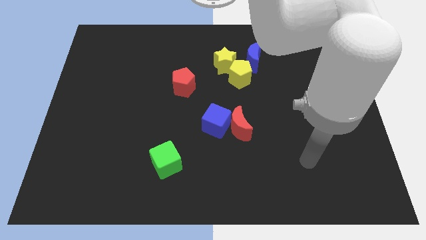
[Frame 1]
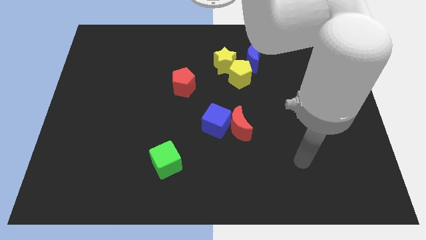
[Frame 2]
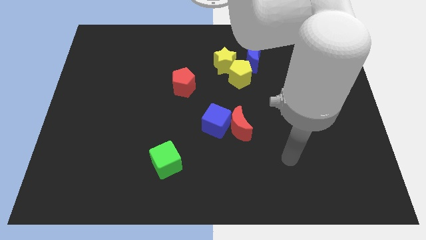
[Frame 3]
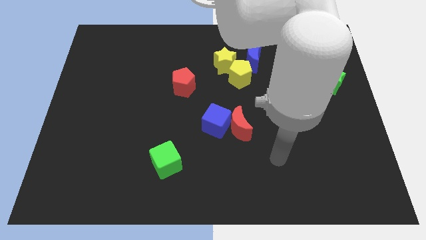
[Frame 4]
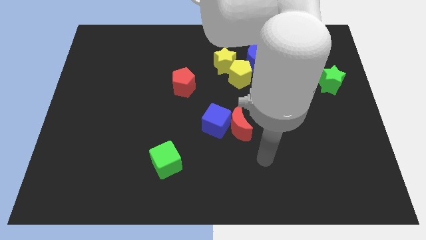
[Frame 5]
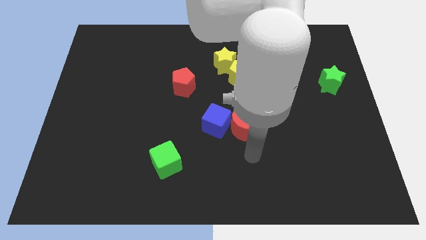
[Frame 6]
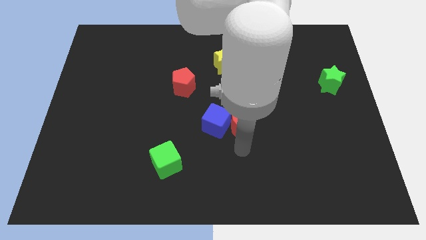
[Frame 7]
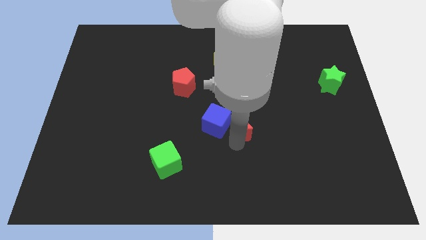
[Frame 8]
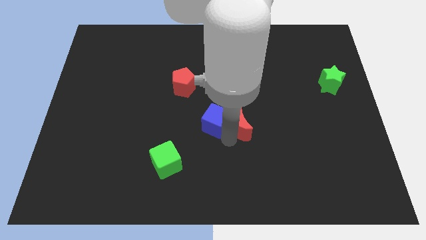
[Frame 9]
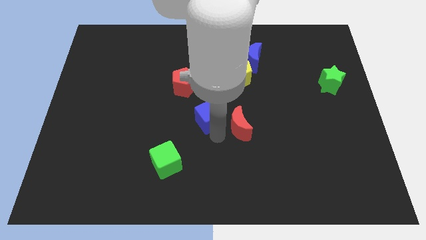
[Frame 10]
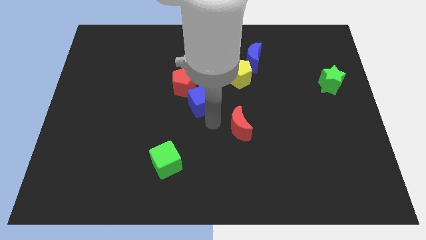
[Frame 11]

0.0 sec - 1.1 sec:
pull the red moon apart from the blue cube

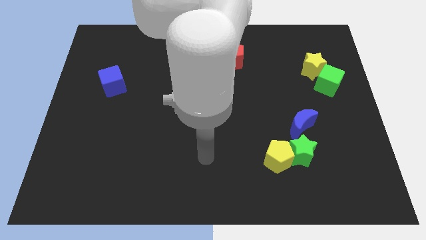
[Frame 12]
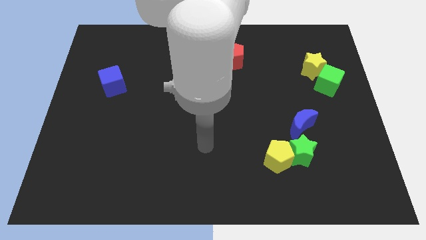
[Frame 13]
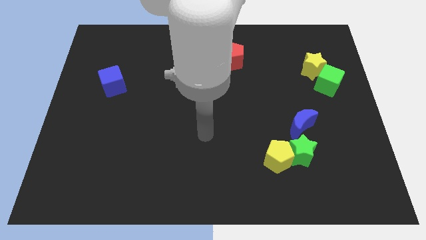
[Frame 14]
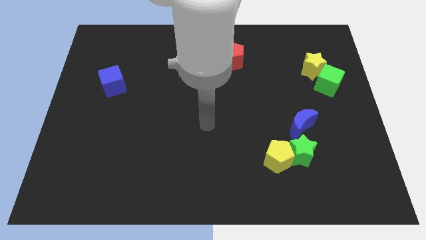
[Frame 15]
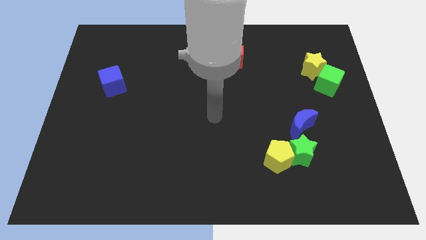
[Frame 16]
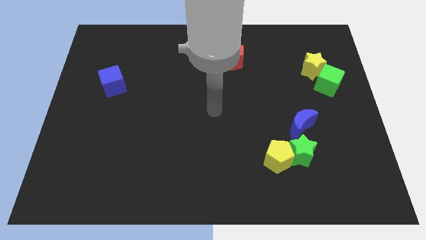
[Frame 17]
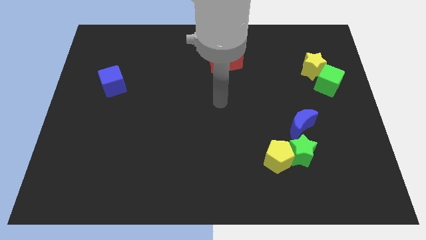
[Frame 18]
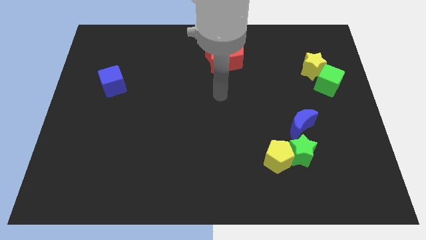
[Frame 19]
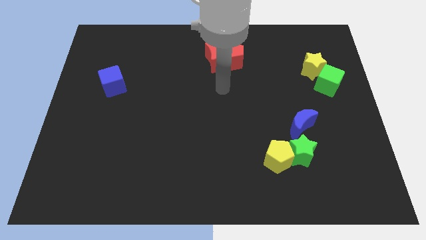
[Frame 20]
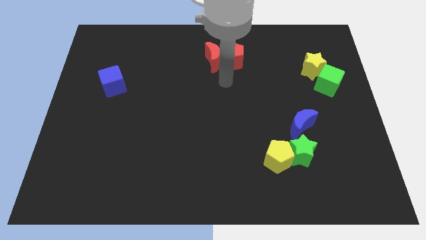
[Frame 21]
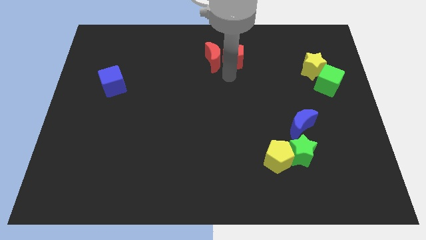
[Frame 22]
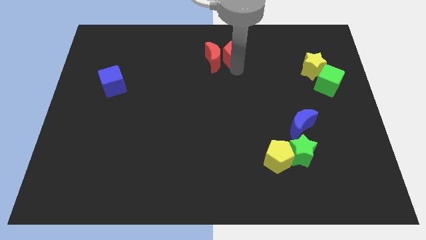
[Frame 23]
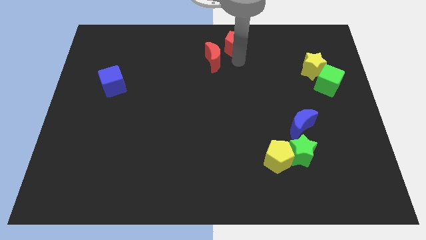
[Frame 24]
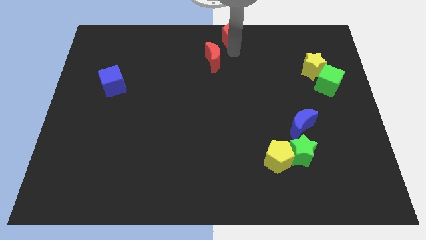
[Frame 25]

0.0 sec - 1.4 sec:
separate the red moon from the red pentagon

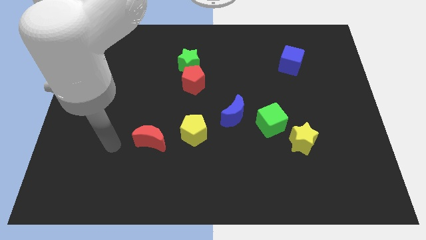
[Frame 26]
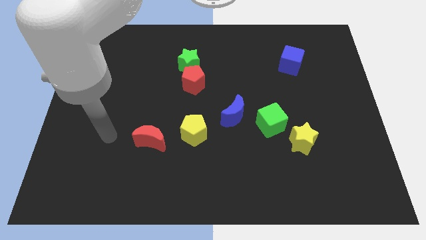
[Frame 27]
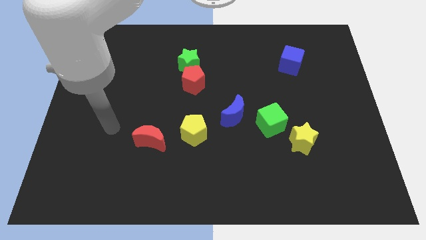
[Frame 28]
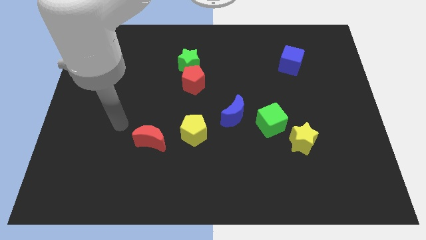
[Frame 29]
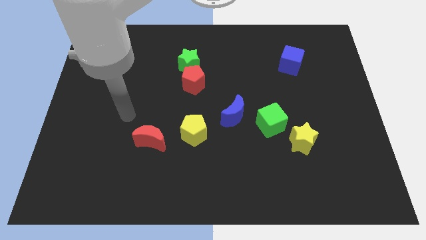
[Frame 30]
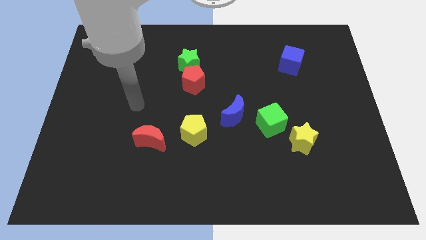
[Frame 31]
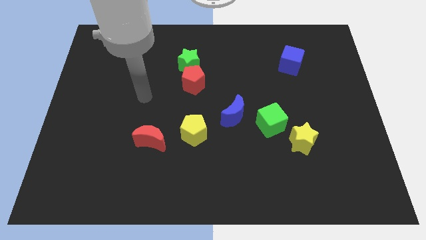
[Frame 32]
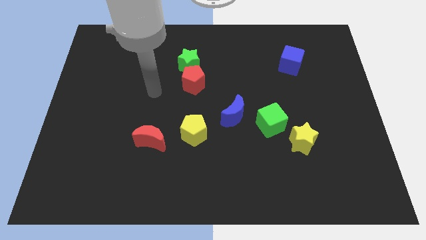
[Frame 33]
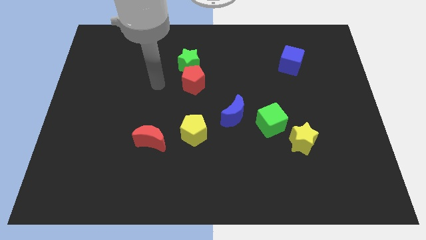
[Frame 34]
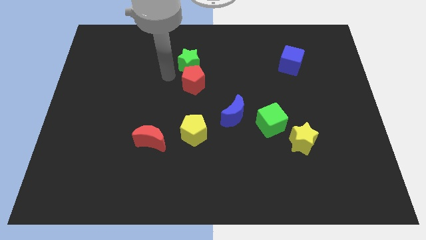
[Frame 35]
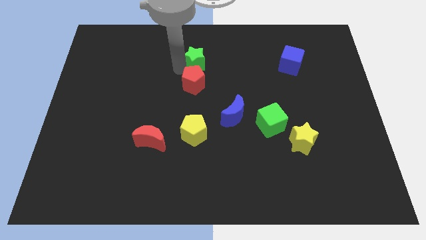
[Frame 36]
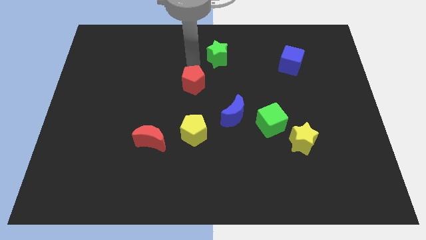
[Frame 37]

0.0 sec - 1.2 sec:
separate the red pentagon from the green star

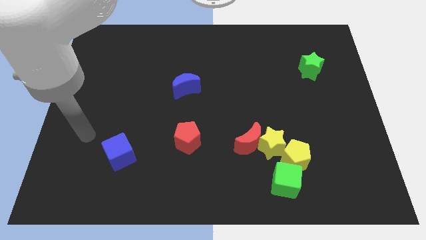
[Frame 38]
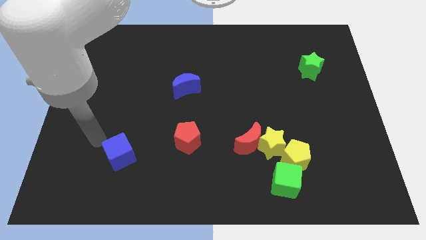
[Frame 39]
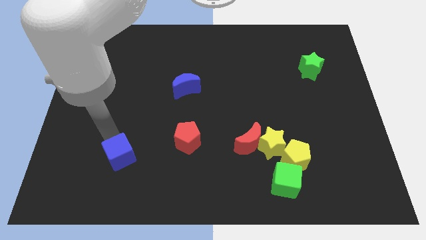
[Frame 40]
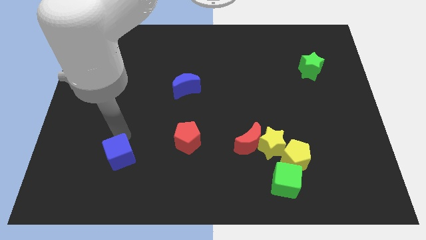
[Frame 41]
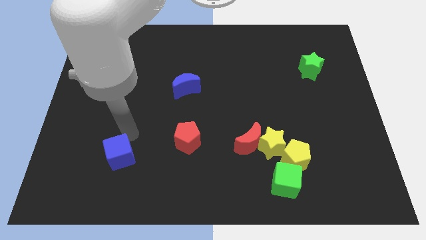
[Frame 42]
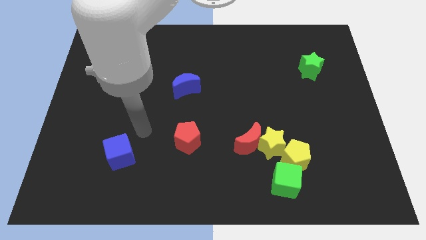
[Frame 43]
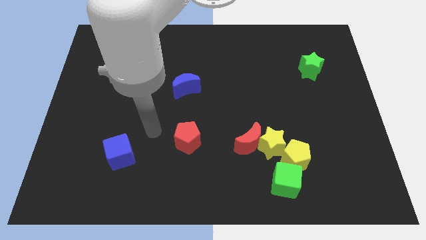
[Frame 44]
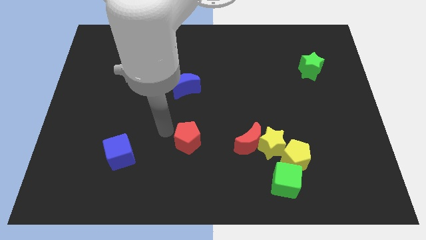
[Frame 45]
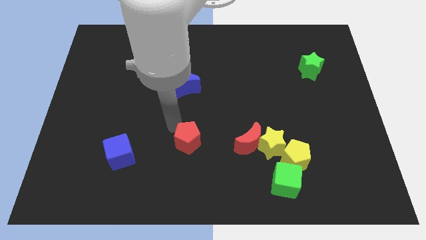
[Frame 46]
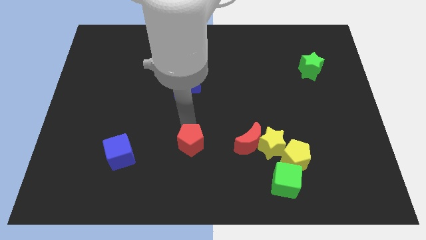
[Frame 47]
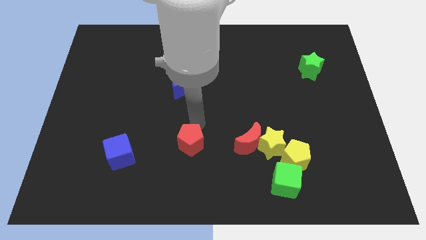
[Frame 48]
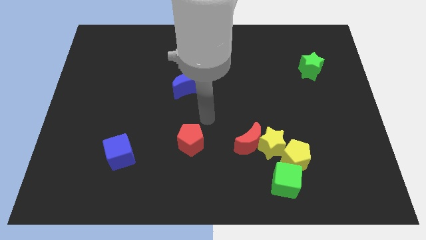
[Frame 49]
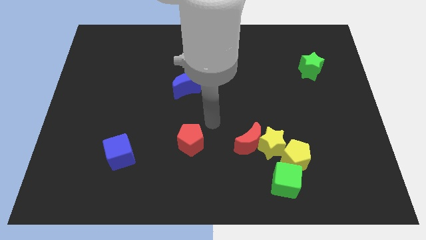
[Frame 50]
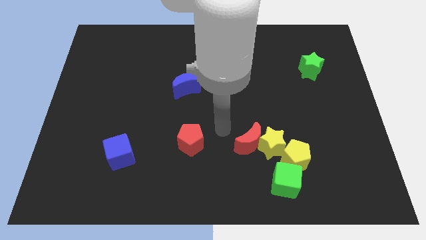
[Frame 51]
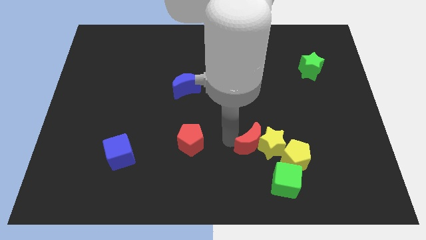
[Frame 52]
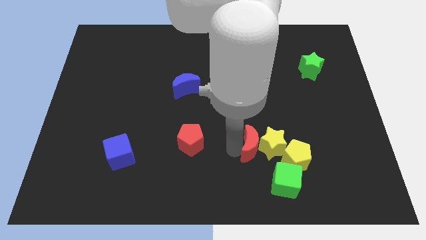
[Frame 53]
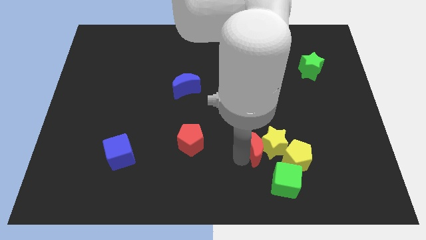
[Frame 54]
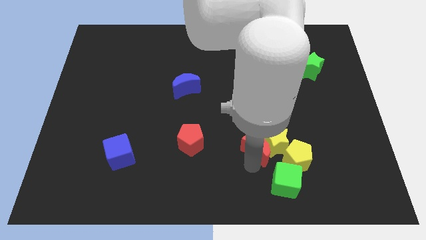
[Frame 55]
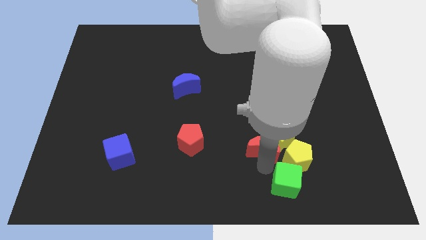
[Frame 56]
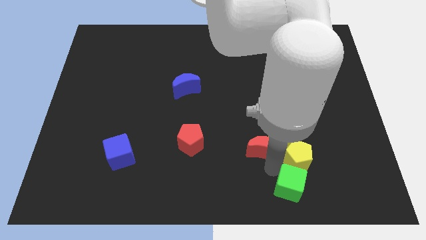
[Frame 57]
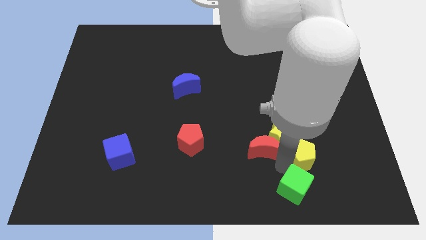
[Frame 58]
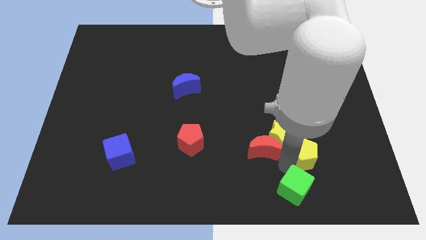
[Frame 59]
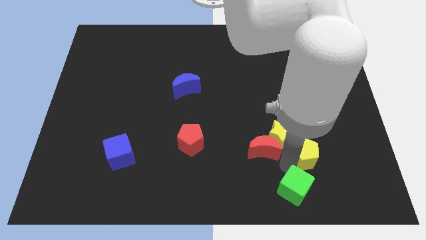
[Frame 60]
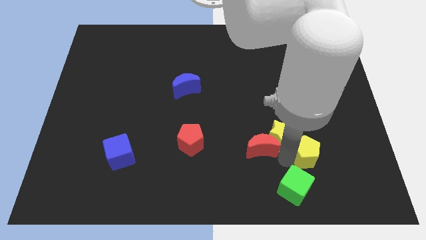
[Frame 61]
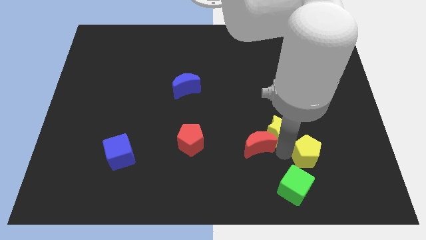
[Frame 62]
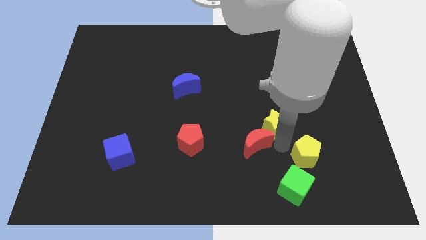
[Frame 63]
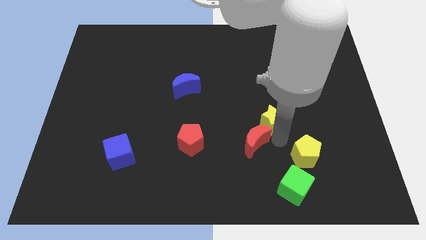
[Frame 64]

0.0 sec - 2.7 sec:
pull the yellow star apart from the red moon, yellow pentagon, and green cube

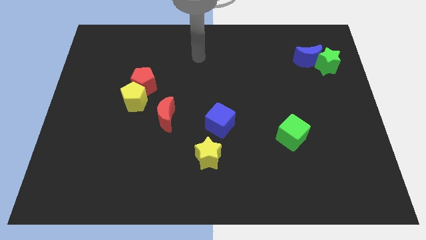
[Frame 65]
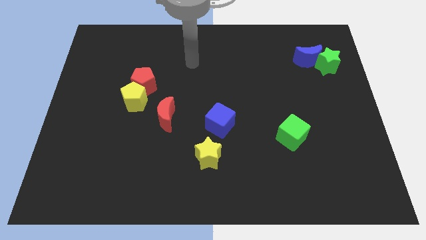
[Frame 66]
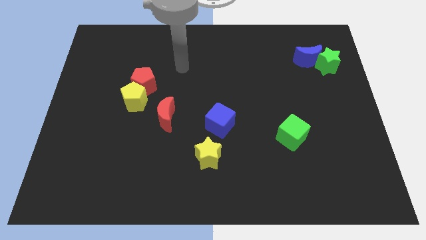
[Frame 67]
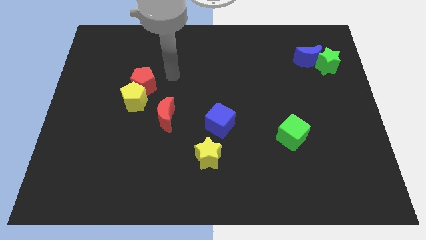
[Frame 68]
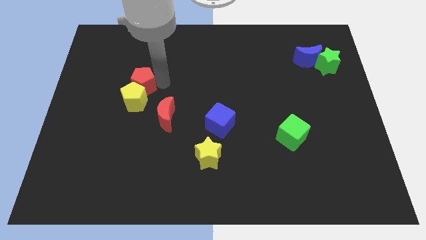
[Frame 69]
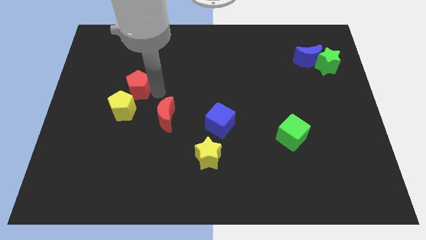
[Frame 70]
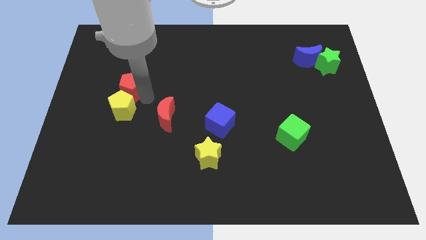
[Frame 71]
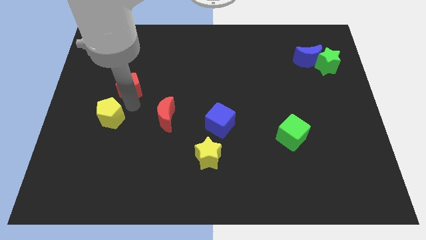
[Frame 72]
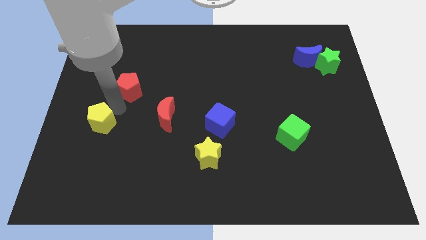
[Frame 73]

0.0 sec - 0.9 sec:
separate the red pentagon from the yellow pentagon

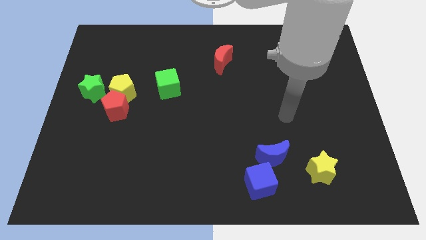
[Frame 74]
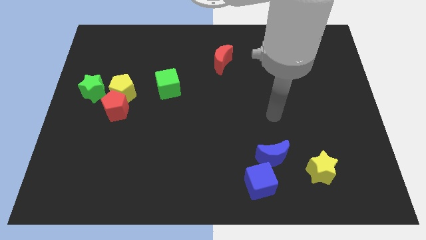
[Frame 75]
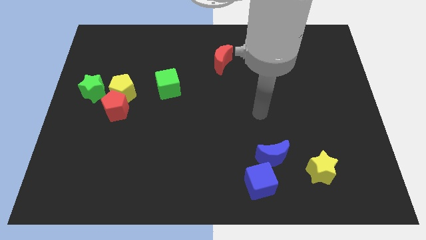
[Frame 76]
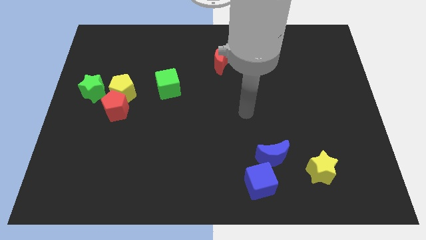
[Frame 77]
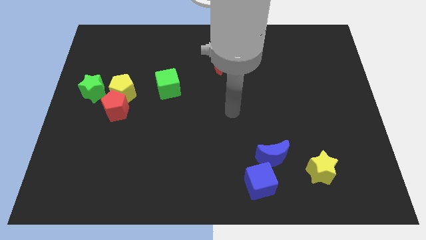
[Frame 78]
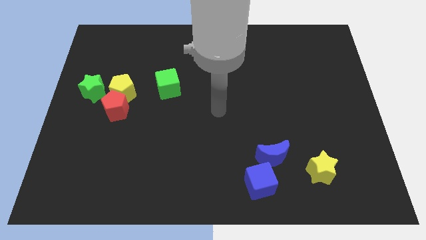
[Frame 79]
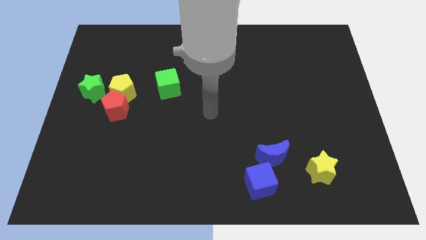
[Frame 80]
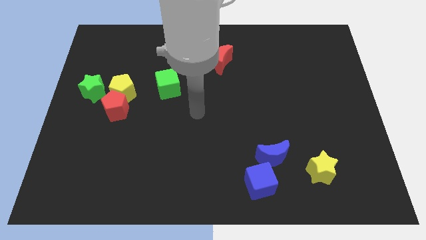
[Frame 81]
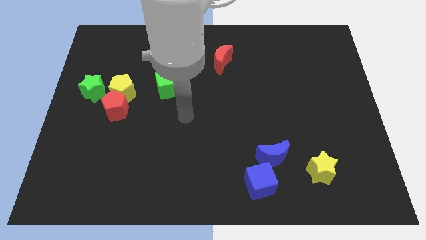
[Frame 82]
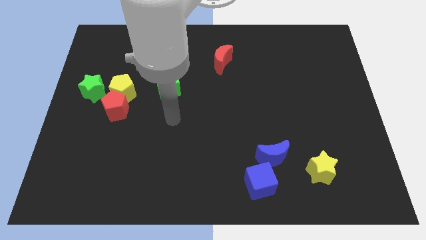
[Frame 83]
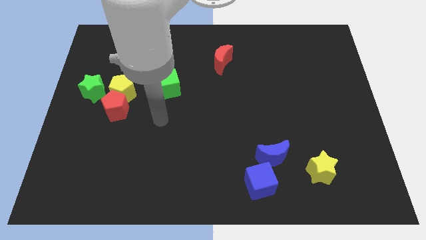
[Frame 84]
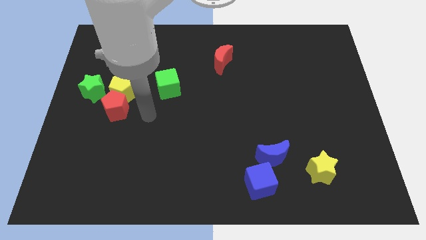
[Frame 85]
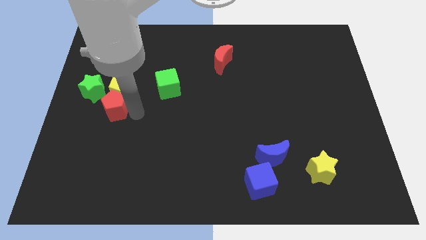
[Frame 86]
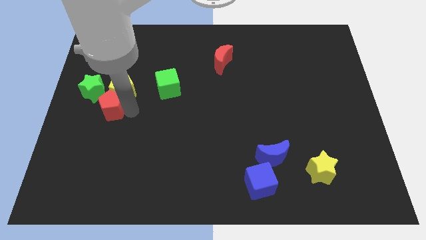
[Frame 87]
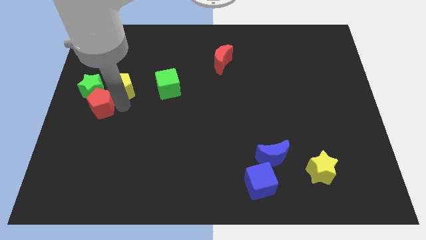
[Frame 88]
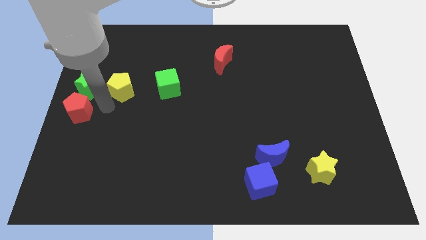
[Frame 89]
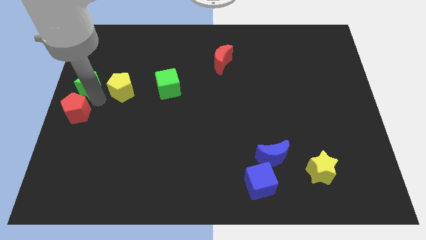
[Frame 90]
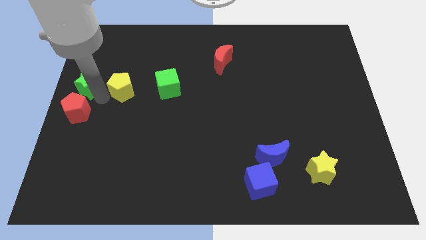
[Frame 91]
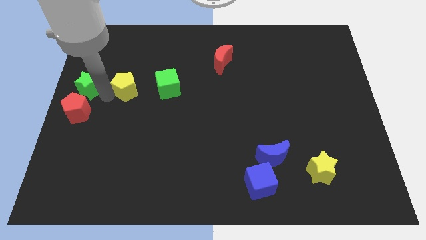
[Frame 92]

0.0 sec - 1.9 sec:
separate the yellow pentagon from the red pentagon and green star
